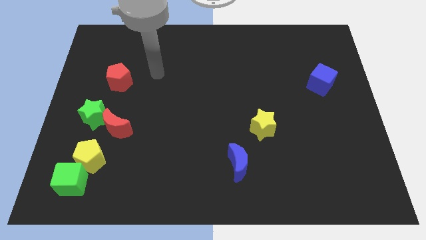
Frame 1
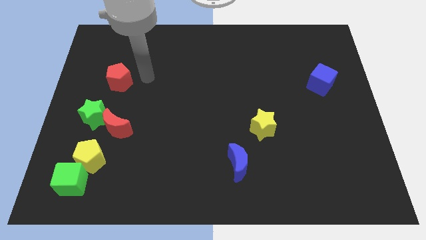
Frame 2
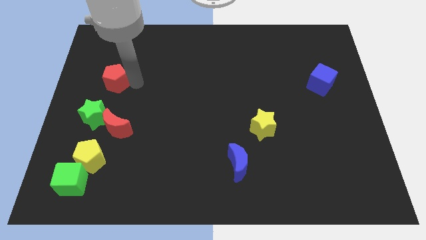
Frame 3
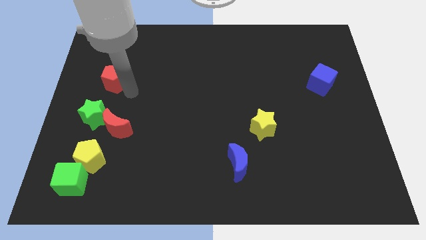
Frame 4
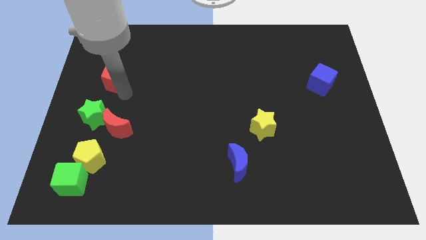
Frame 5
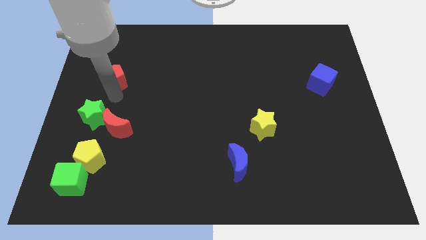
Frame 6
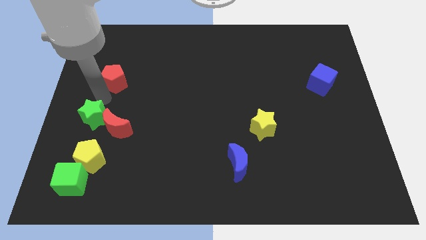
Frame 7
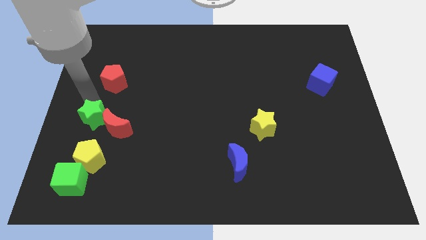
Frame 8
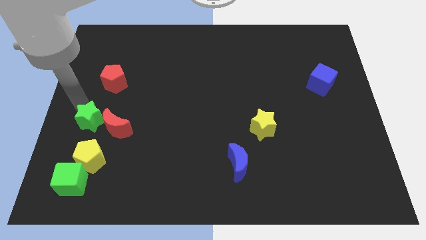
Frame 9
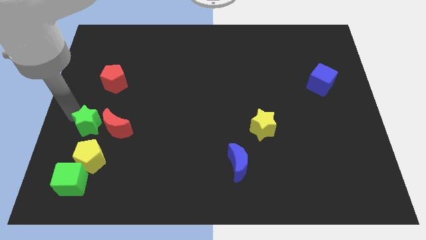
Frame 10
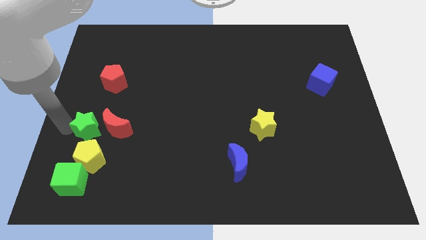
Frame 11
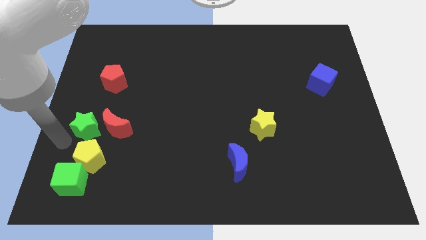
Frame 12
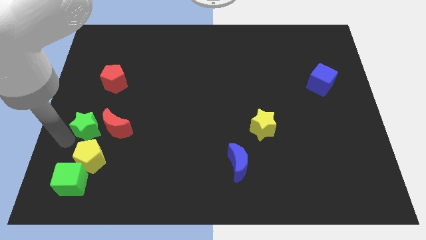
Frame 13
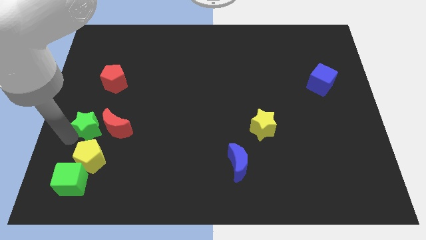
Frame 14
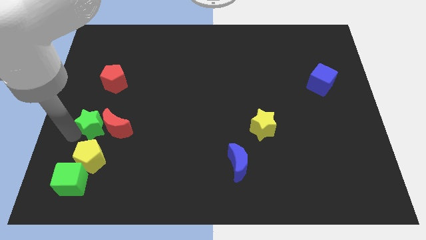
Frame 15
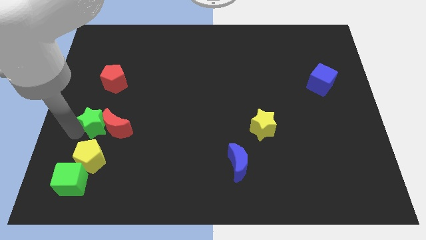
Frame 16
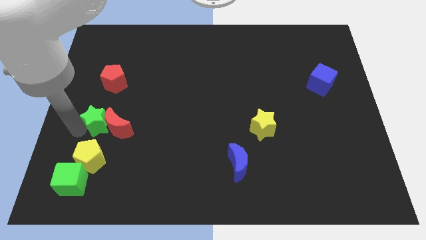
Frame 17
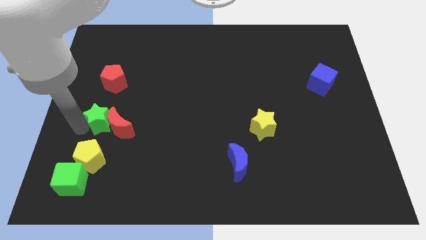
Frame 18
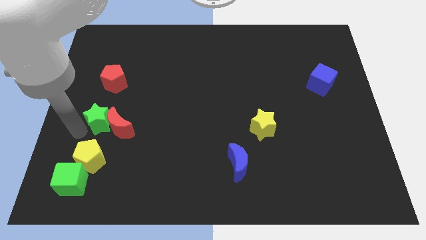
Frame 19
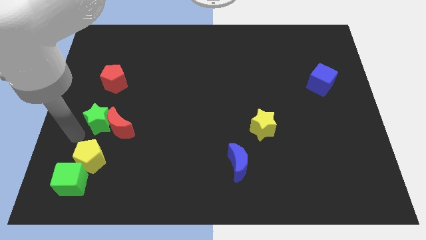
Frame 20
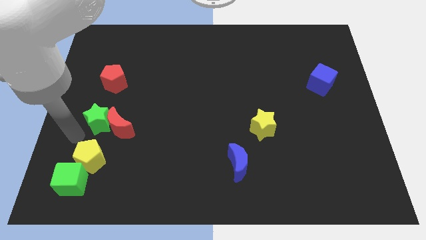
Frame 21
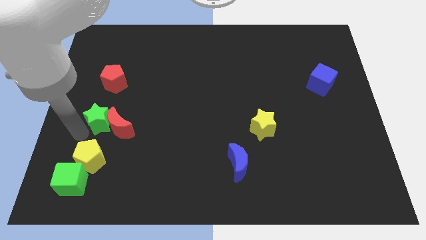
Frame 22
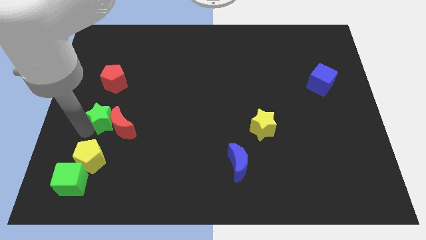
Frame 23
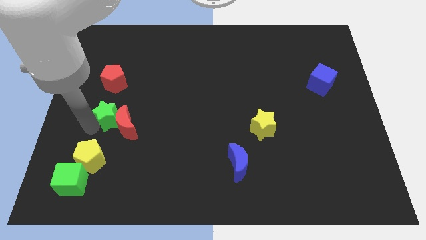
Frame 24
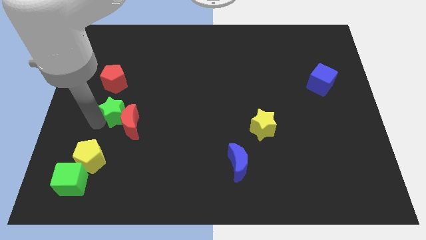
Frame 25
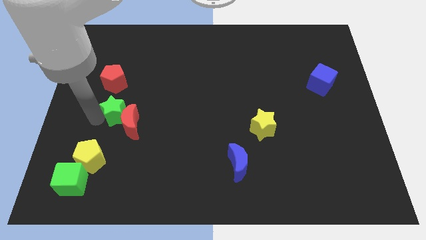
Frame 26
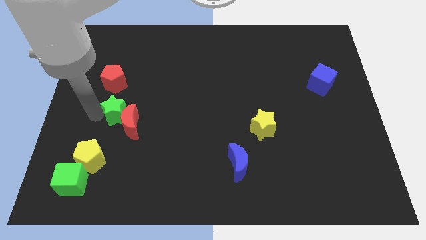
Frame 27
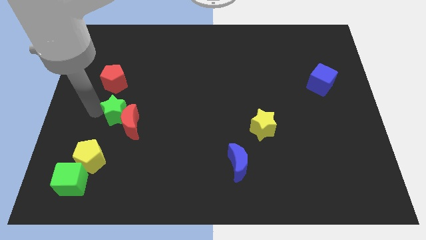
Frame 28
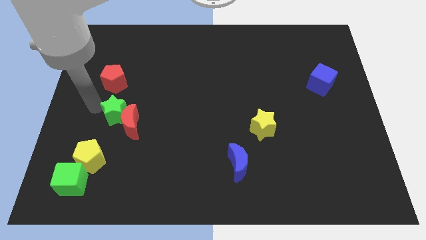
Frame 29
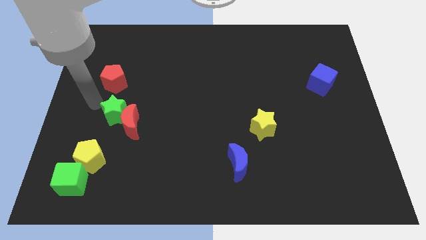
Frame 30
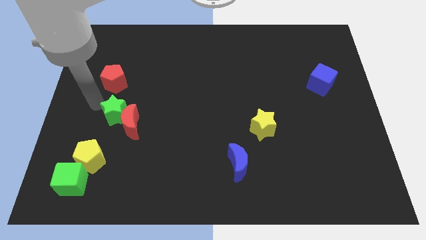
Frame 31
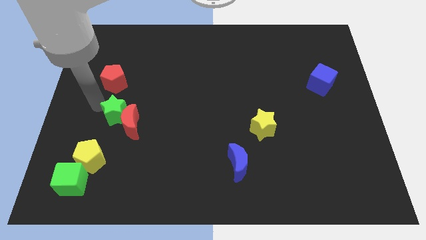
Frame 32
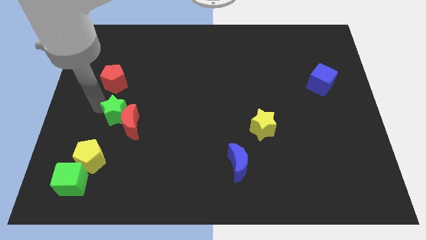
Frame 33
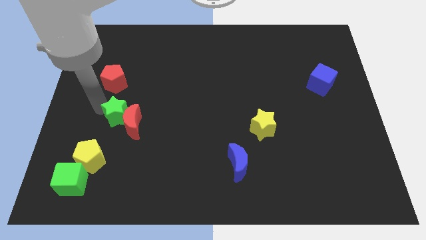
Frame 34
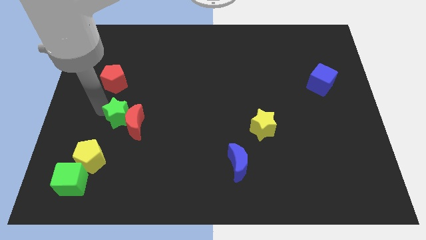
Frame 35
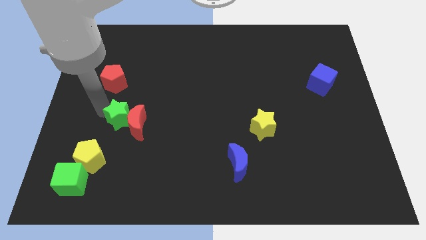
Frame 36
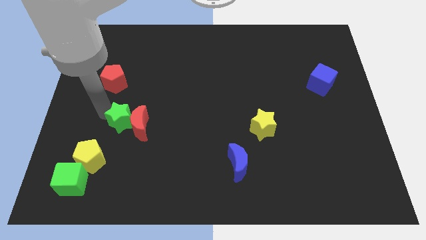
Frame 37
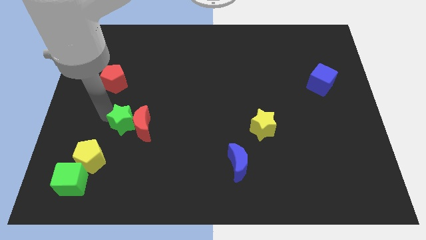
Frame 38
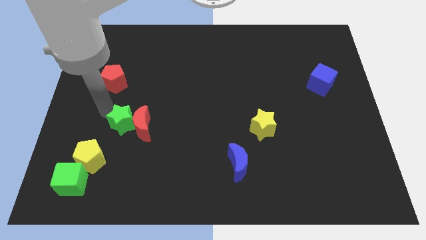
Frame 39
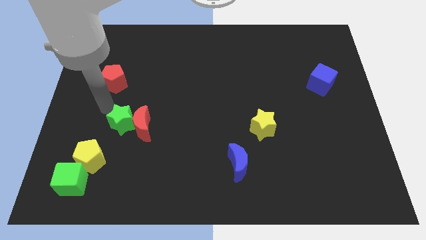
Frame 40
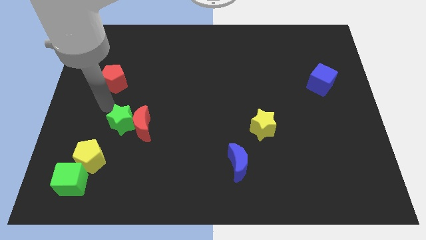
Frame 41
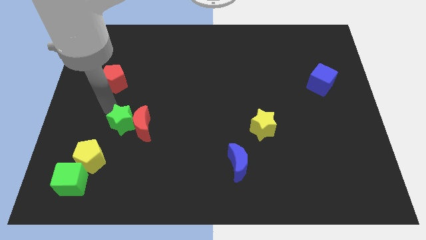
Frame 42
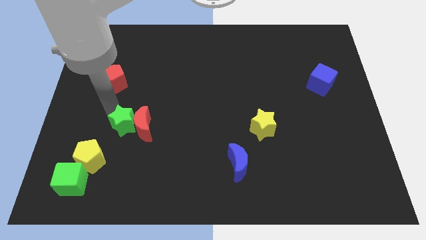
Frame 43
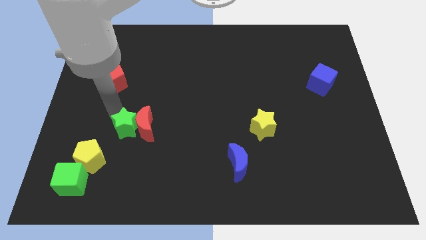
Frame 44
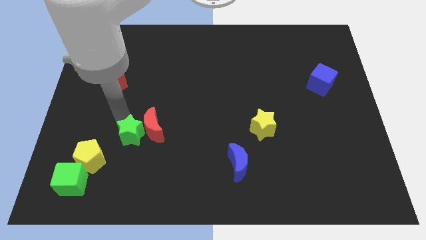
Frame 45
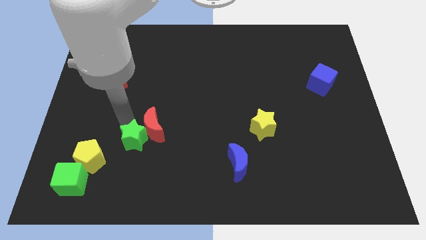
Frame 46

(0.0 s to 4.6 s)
slide the green star right of the yellow pentagon

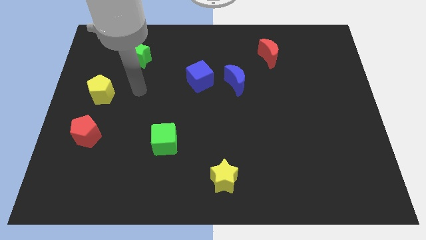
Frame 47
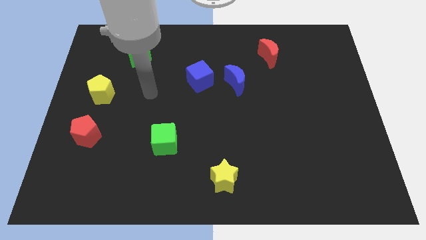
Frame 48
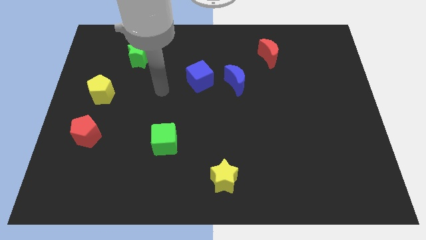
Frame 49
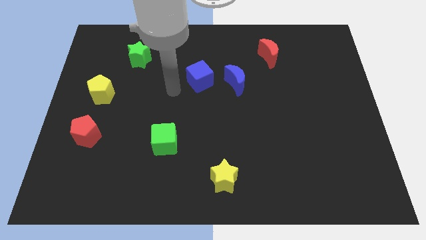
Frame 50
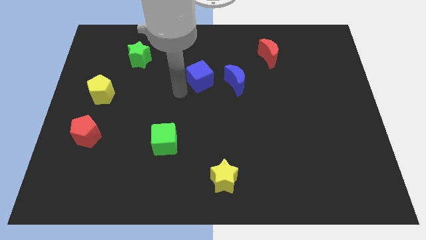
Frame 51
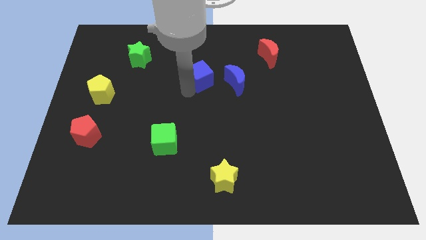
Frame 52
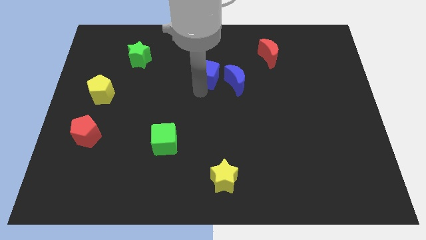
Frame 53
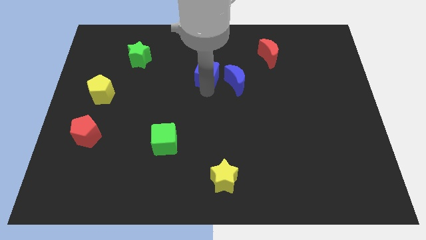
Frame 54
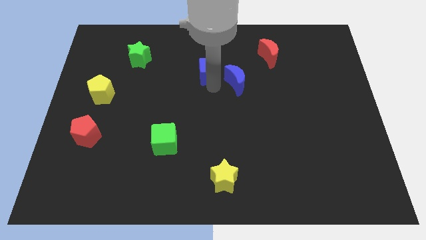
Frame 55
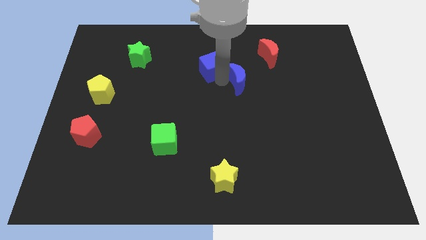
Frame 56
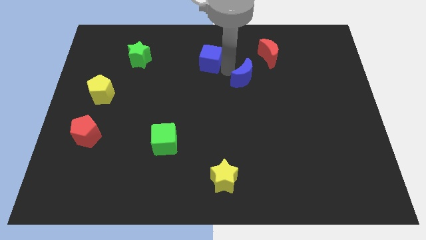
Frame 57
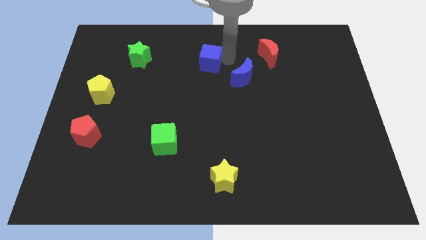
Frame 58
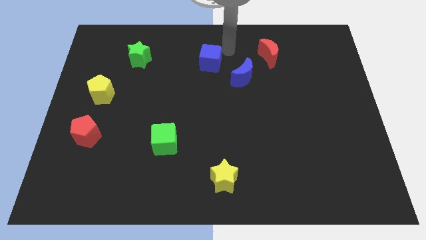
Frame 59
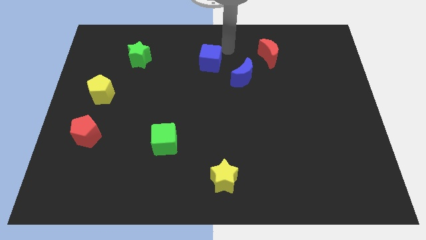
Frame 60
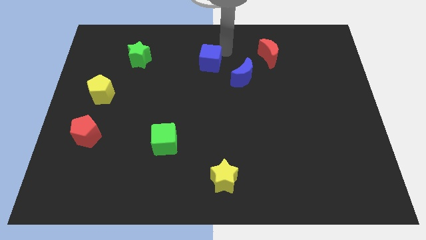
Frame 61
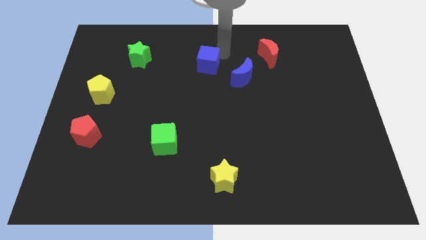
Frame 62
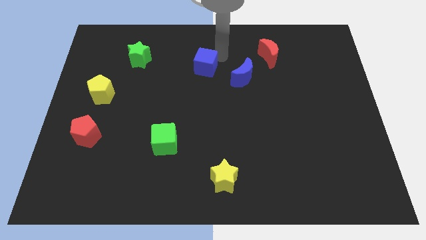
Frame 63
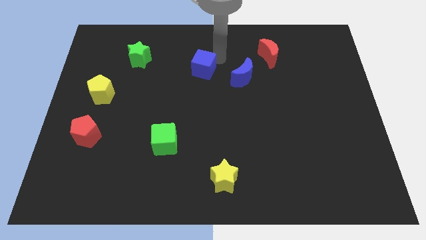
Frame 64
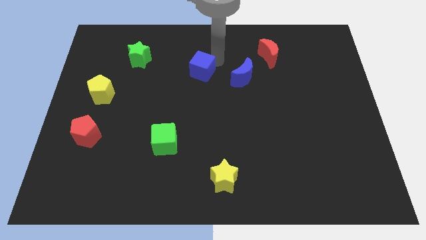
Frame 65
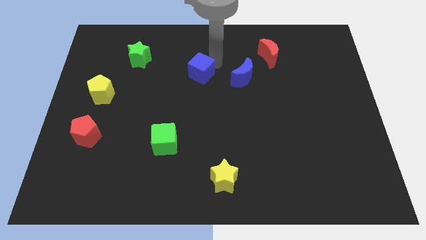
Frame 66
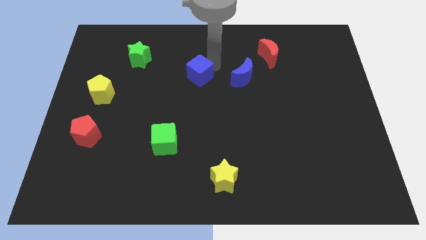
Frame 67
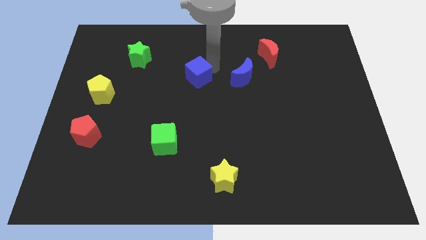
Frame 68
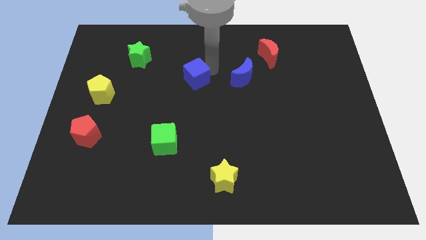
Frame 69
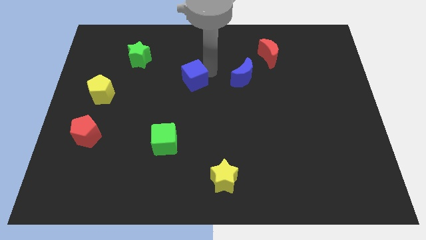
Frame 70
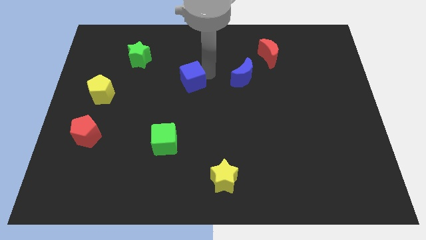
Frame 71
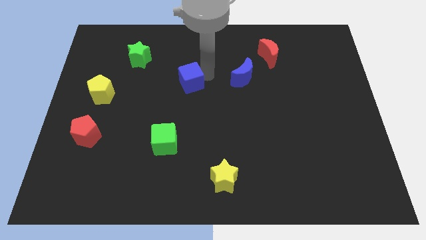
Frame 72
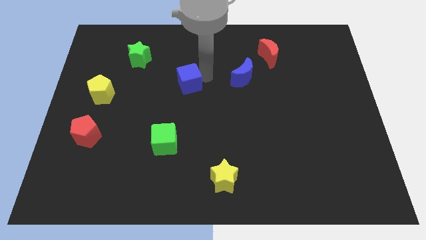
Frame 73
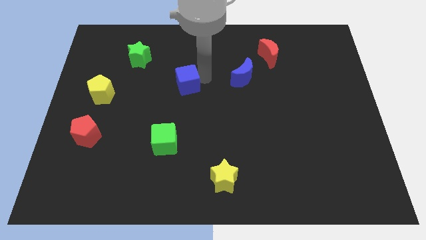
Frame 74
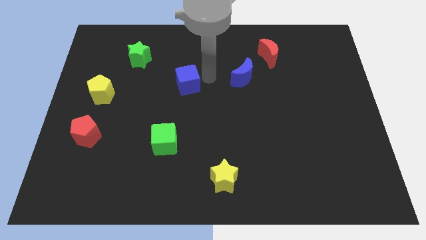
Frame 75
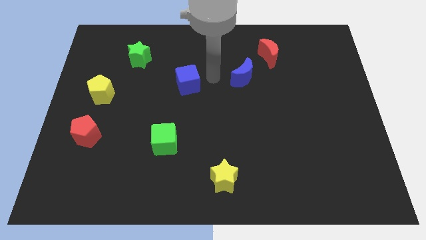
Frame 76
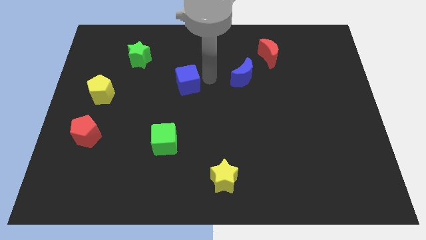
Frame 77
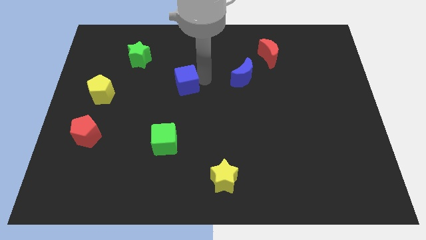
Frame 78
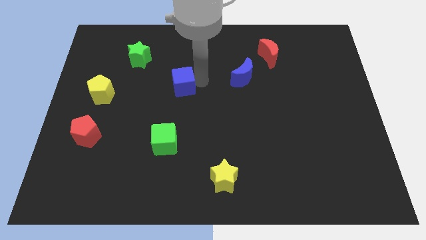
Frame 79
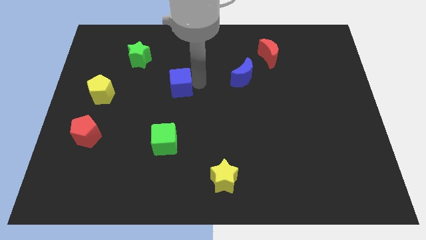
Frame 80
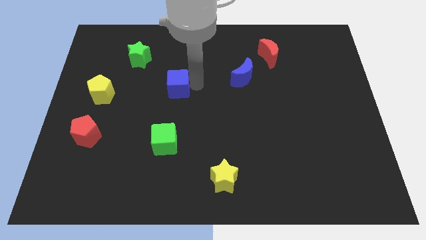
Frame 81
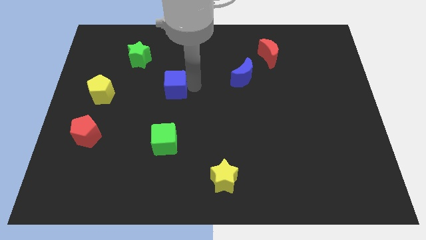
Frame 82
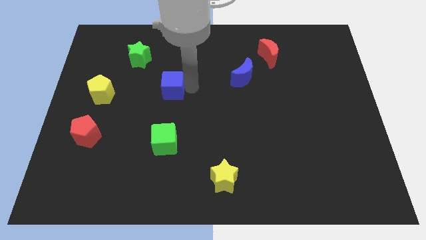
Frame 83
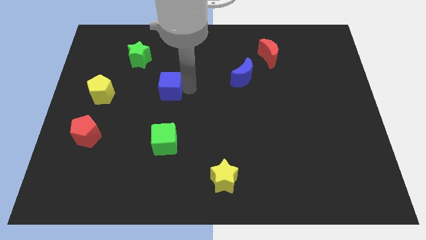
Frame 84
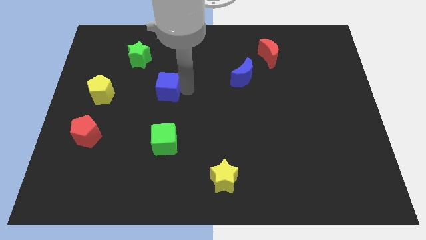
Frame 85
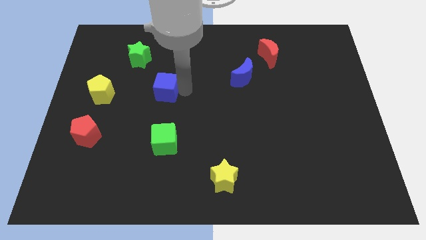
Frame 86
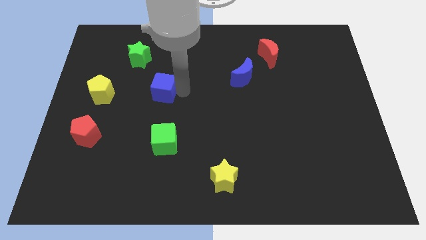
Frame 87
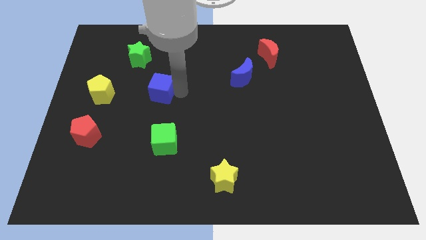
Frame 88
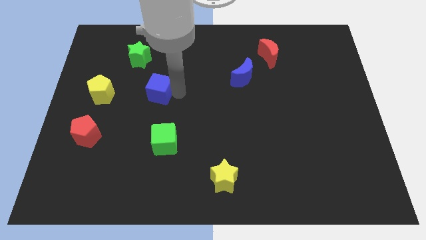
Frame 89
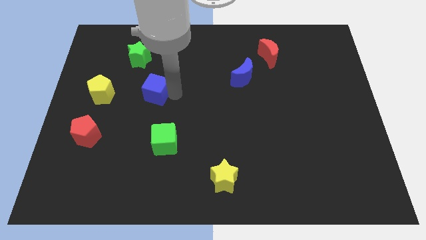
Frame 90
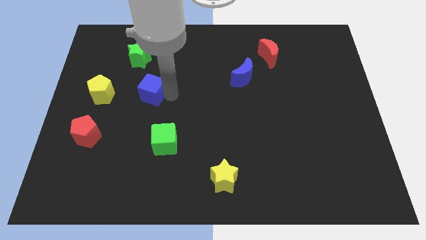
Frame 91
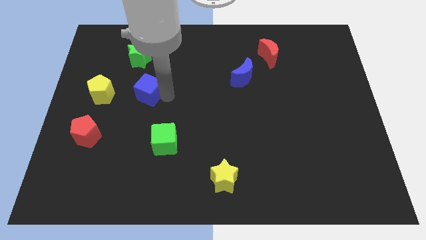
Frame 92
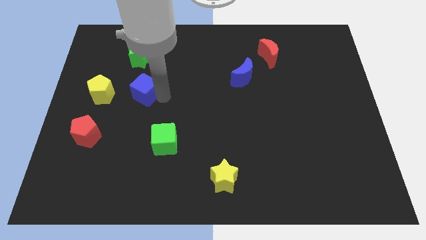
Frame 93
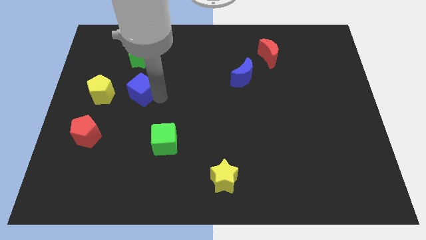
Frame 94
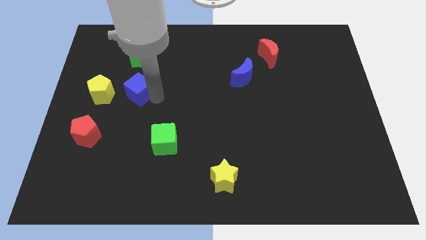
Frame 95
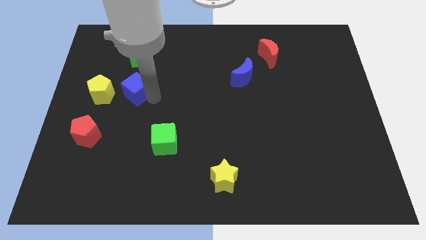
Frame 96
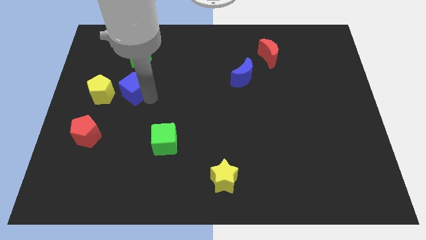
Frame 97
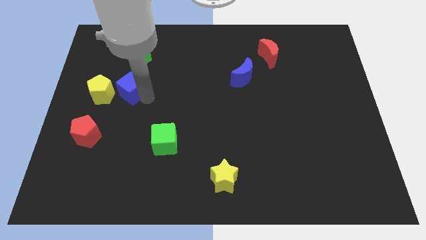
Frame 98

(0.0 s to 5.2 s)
slide the blue cube diagonally up and to the right of the yellow pentagon
